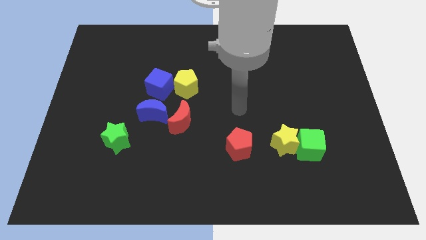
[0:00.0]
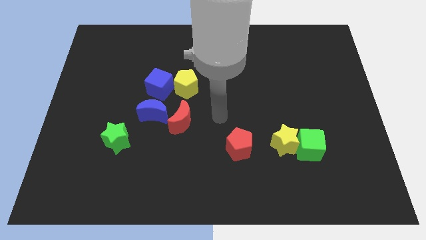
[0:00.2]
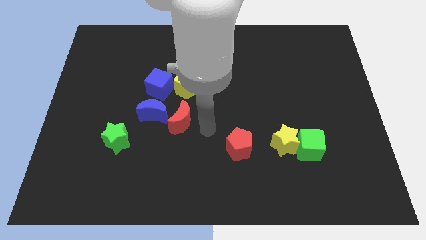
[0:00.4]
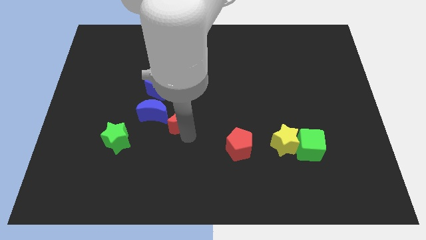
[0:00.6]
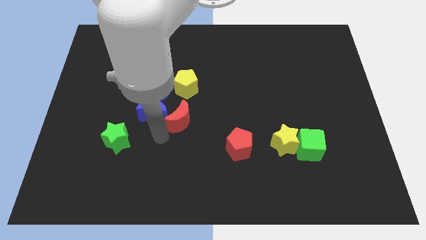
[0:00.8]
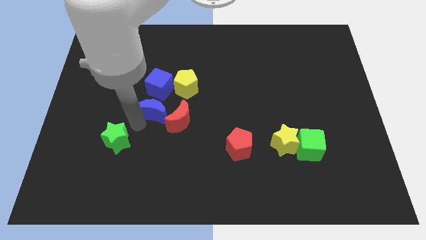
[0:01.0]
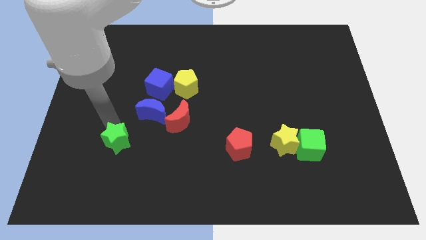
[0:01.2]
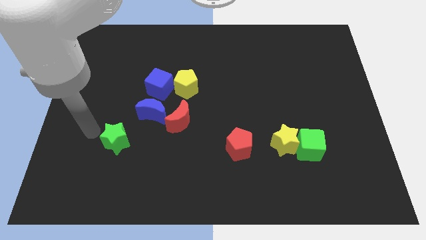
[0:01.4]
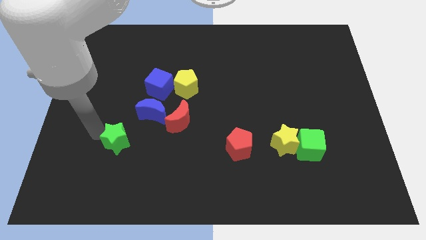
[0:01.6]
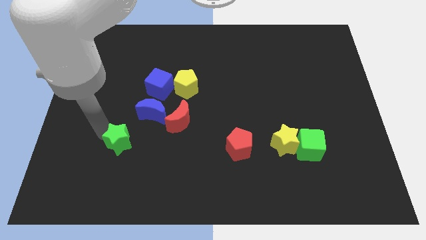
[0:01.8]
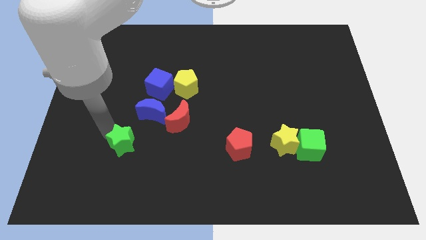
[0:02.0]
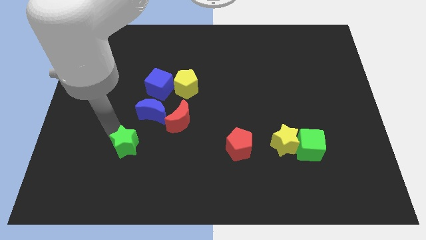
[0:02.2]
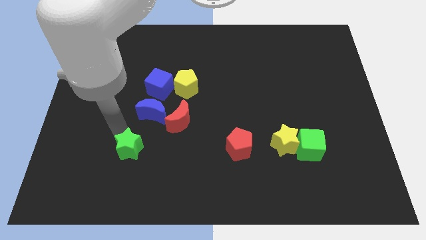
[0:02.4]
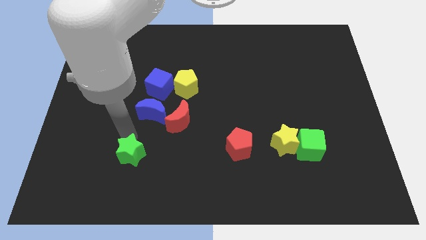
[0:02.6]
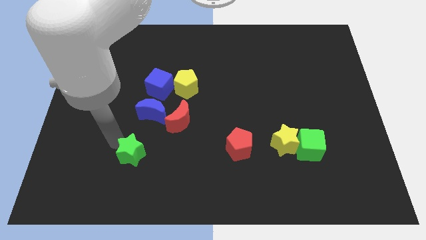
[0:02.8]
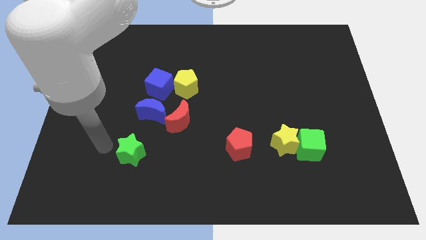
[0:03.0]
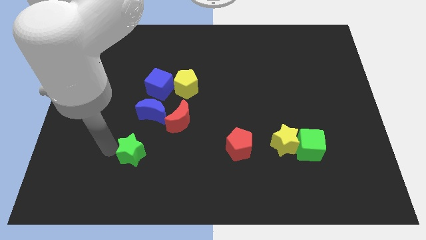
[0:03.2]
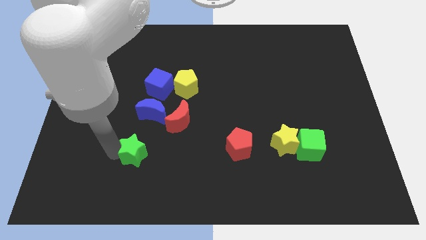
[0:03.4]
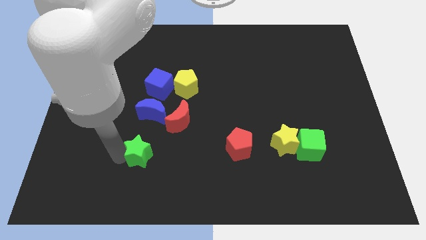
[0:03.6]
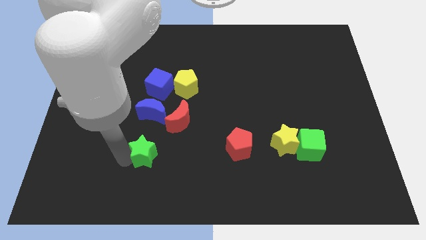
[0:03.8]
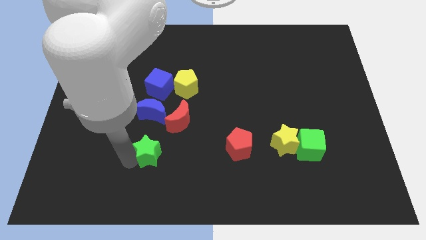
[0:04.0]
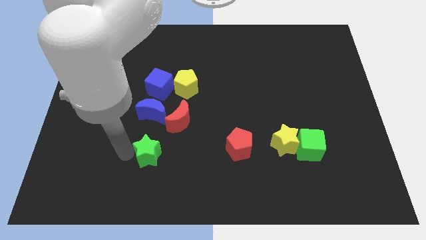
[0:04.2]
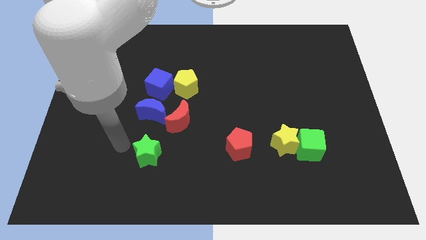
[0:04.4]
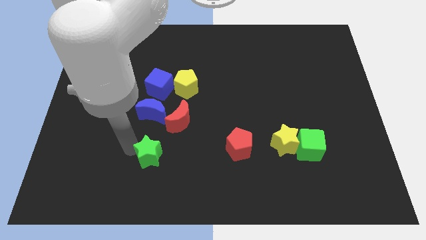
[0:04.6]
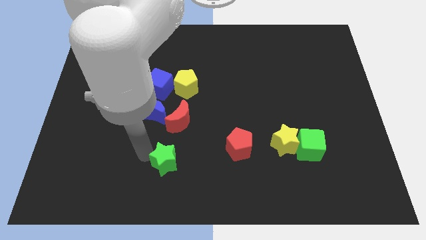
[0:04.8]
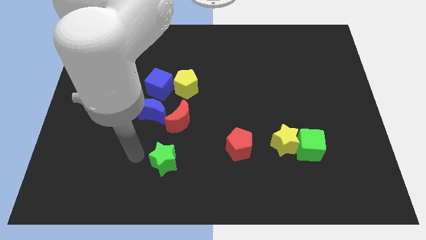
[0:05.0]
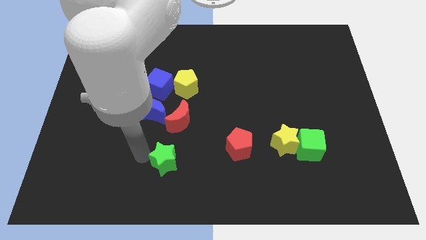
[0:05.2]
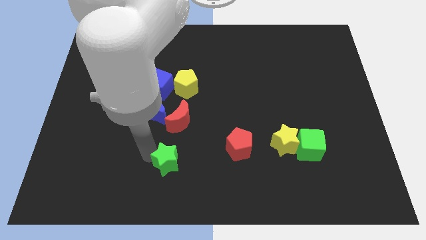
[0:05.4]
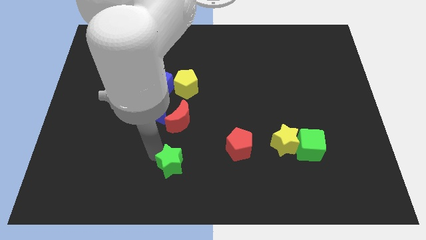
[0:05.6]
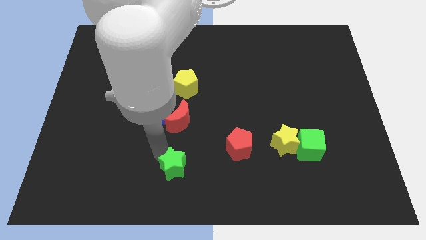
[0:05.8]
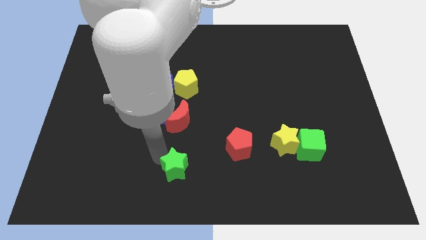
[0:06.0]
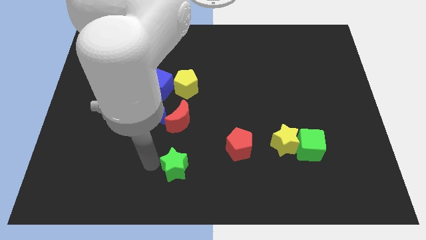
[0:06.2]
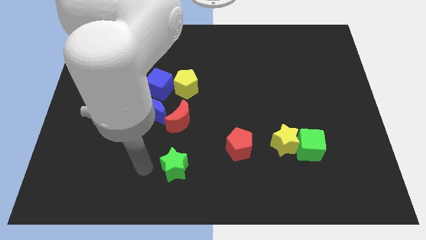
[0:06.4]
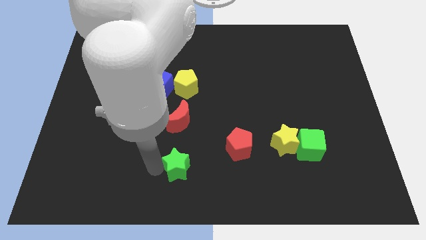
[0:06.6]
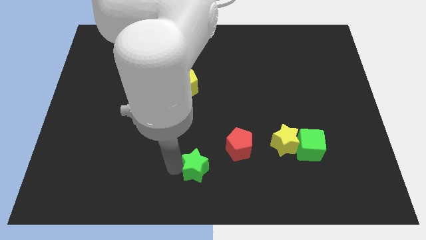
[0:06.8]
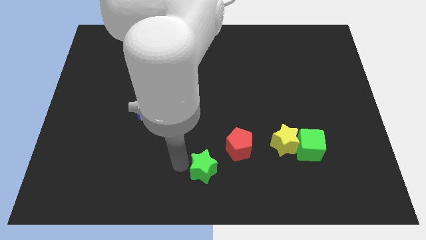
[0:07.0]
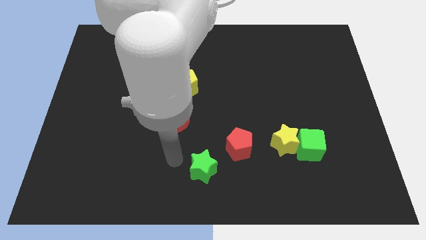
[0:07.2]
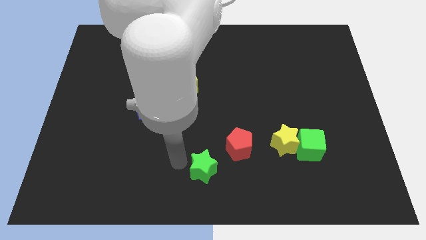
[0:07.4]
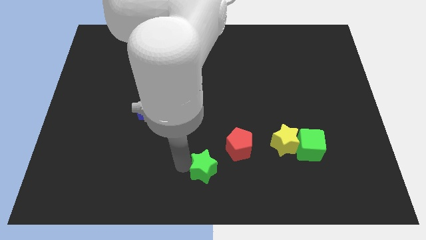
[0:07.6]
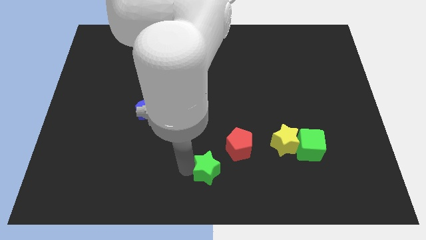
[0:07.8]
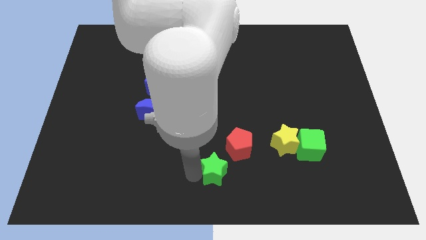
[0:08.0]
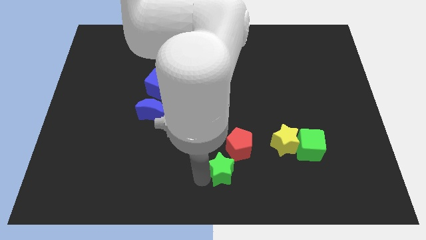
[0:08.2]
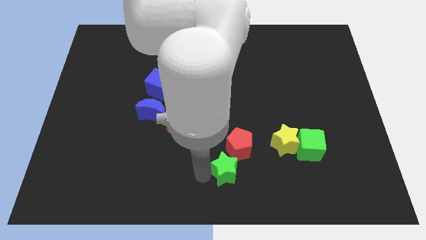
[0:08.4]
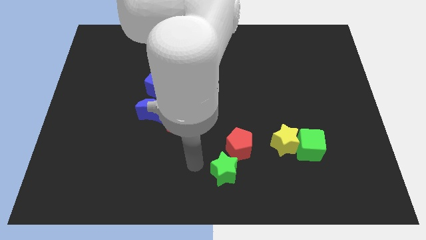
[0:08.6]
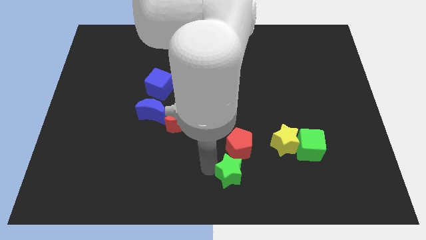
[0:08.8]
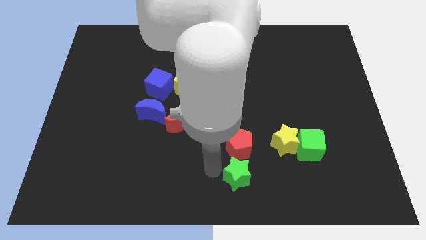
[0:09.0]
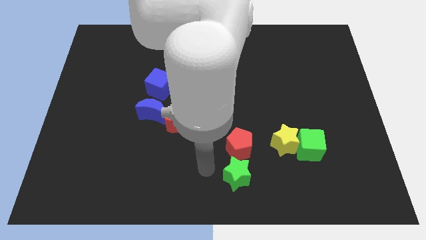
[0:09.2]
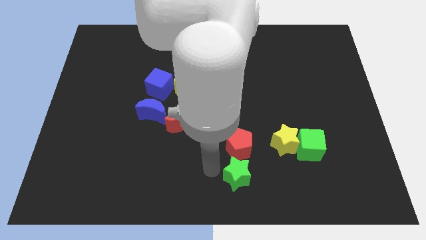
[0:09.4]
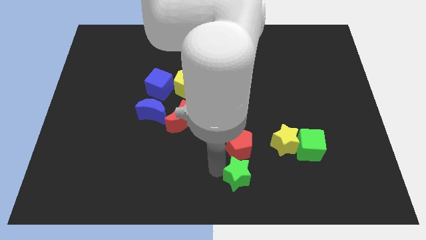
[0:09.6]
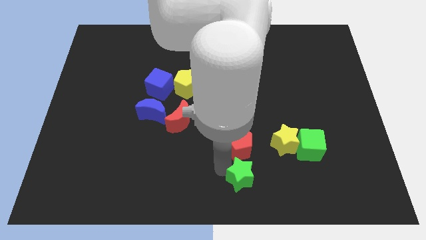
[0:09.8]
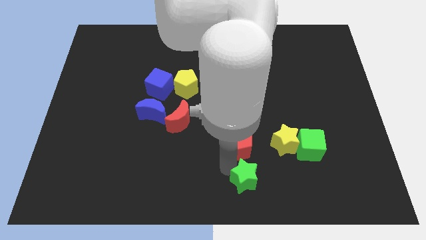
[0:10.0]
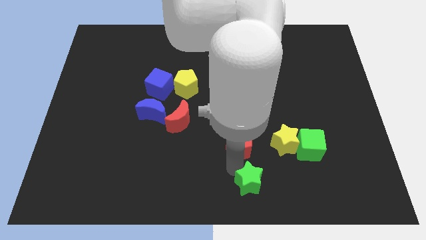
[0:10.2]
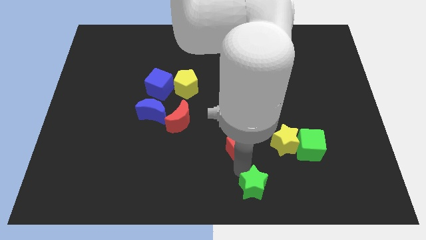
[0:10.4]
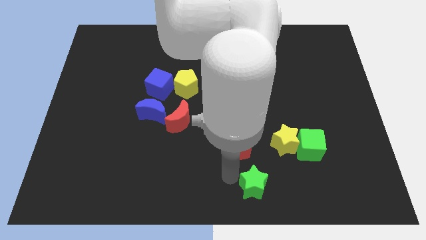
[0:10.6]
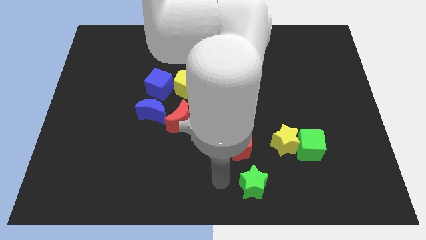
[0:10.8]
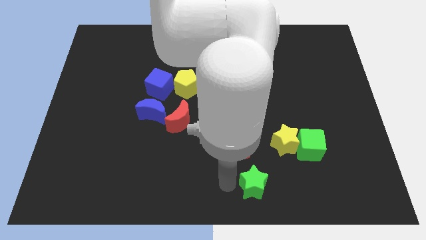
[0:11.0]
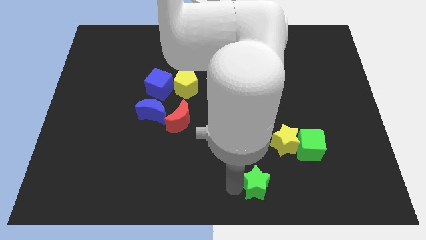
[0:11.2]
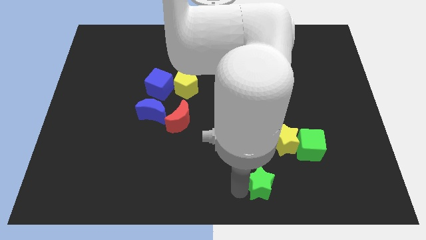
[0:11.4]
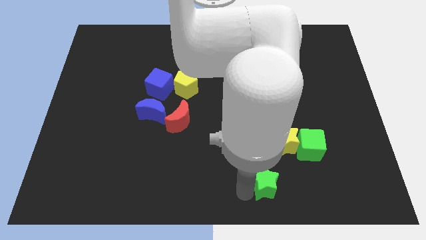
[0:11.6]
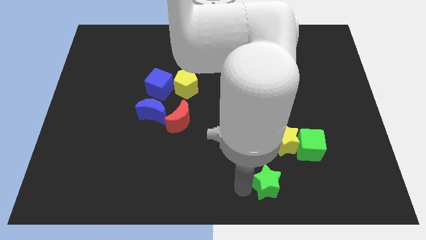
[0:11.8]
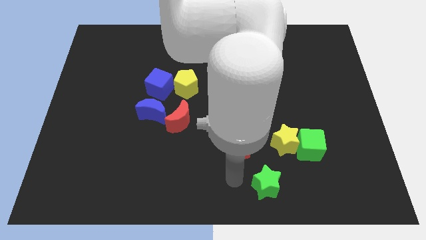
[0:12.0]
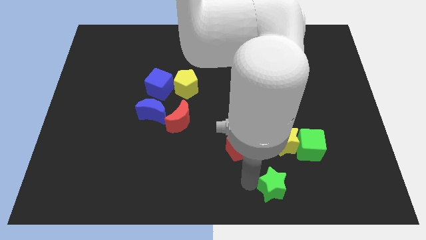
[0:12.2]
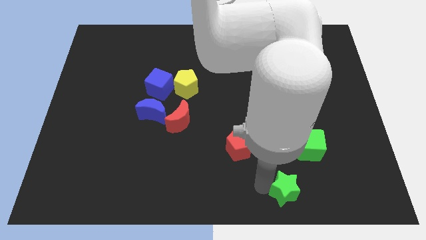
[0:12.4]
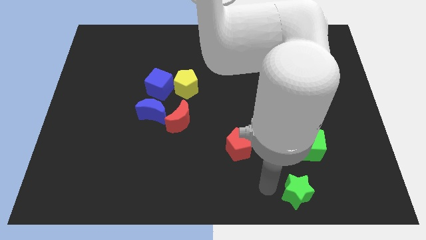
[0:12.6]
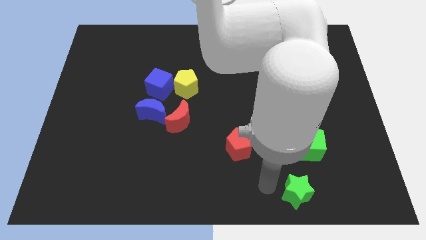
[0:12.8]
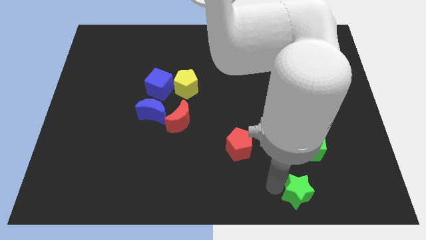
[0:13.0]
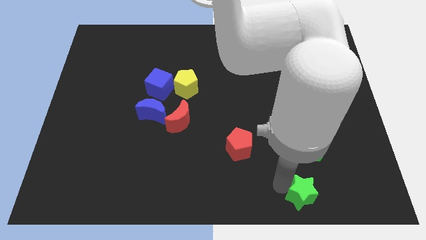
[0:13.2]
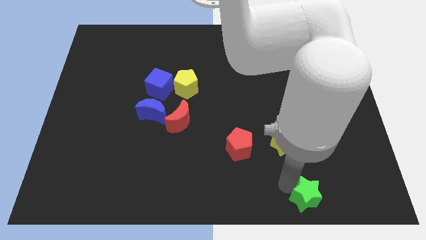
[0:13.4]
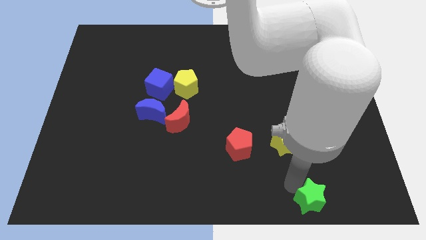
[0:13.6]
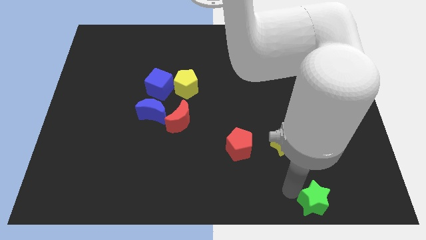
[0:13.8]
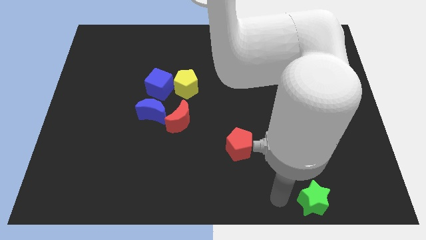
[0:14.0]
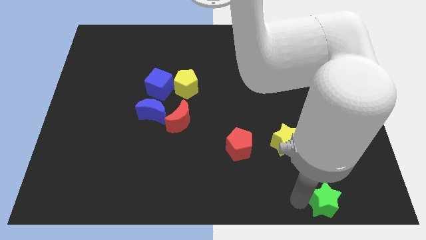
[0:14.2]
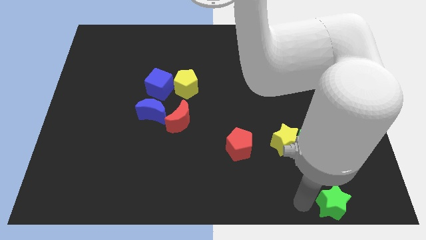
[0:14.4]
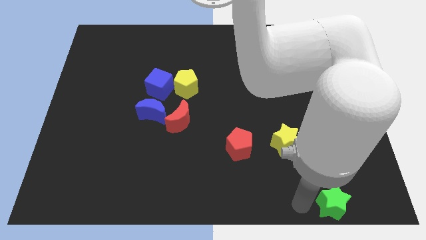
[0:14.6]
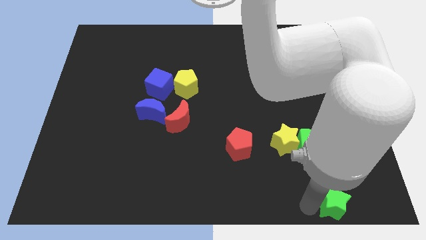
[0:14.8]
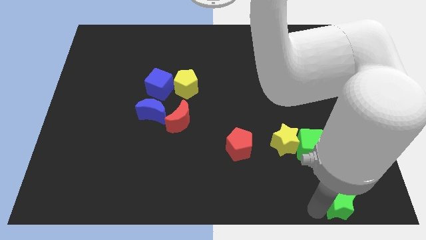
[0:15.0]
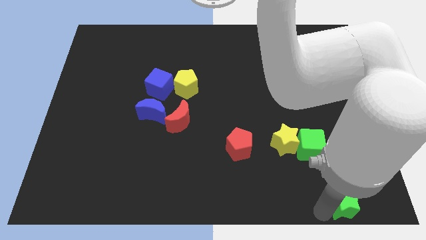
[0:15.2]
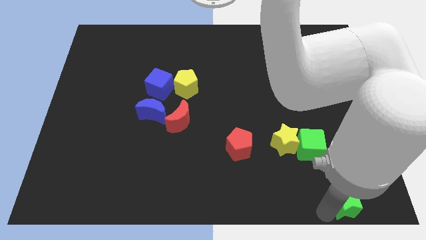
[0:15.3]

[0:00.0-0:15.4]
push the green star to the bottom right
